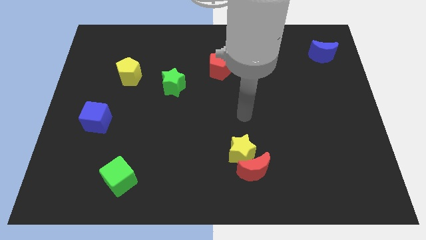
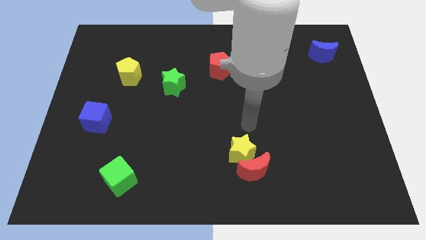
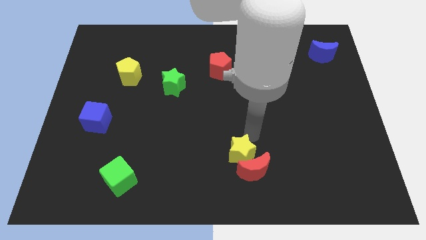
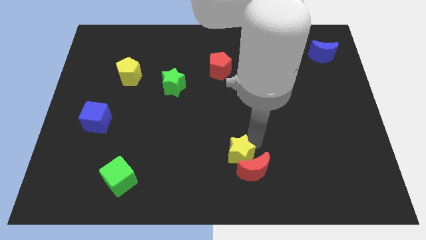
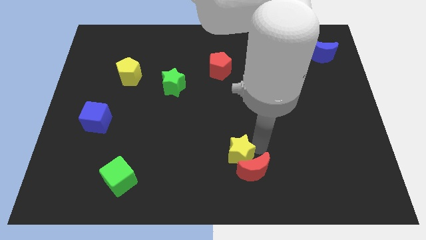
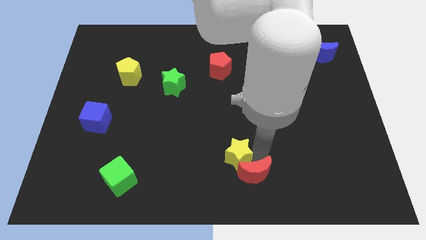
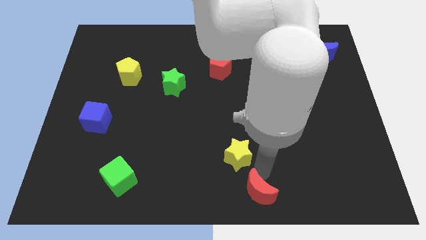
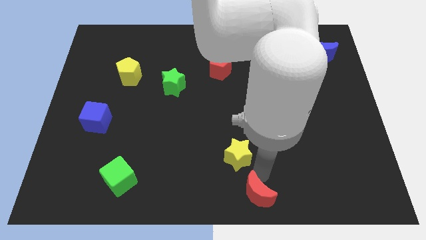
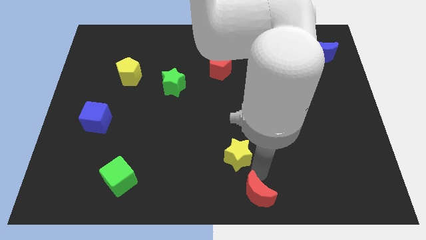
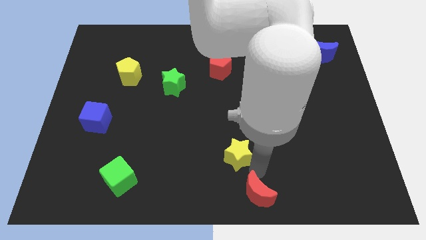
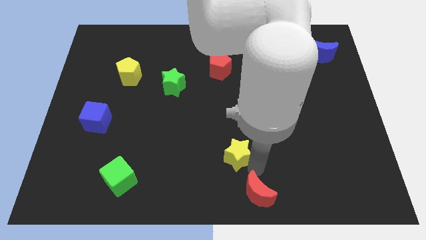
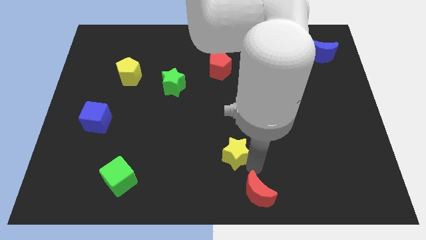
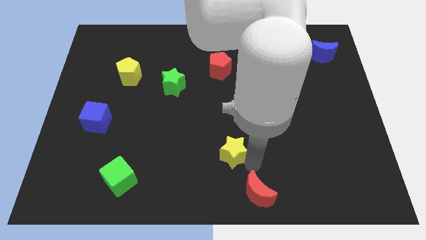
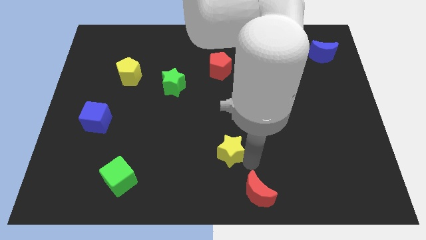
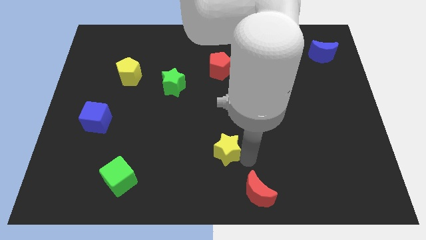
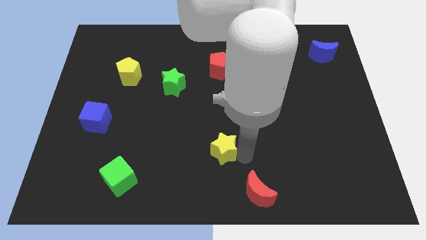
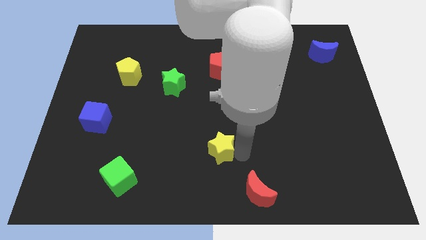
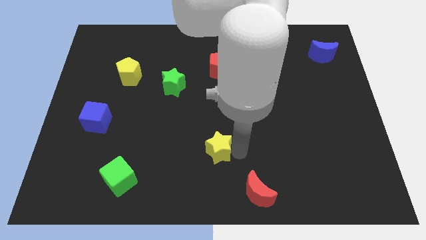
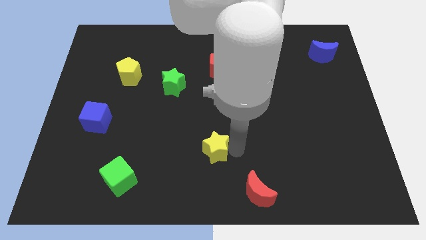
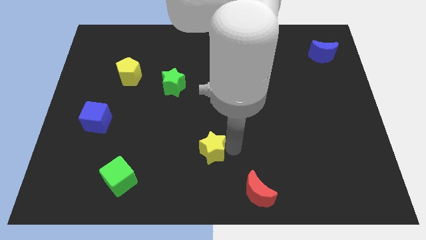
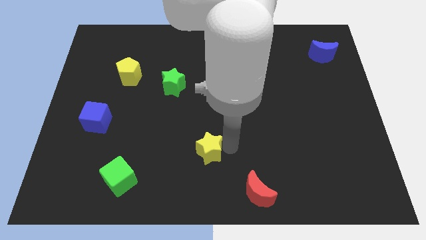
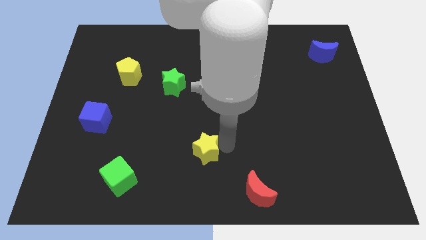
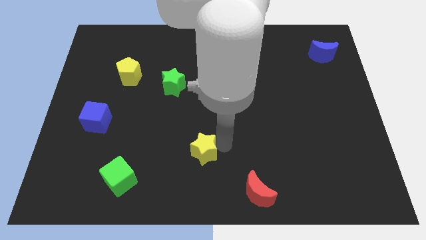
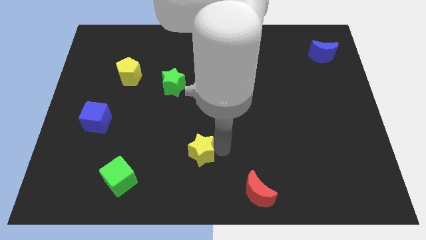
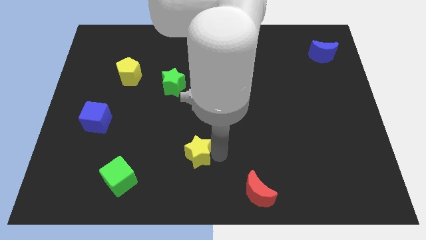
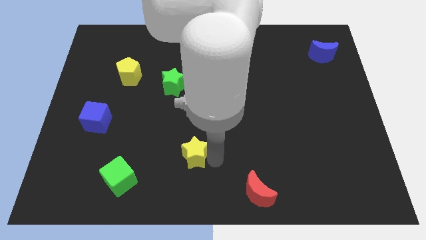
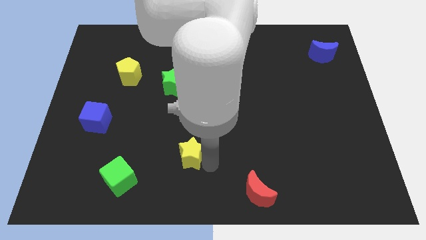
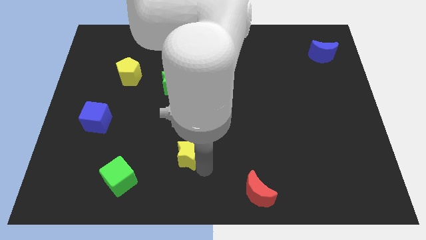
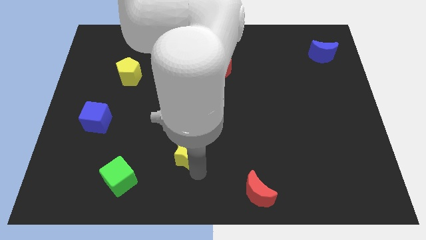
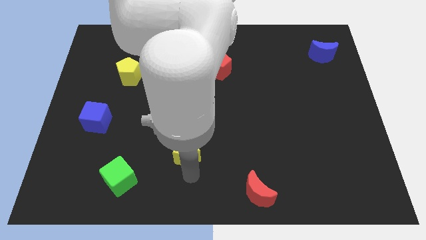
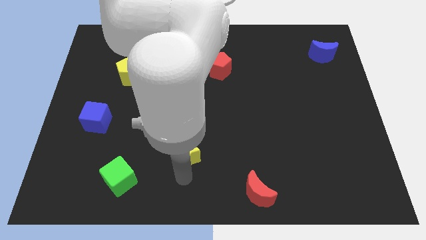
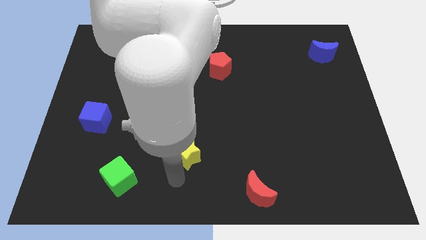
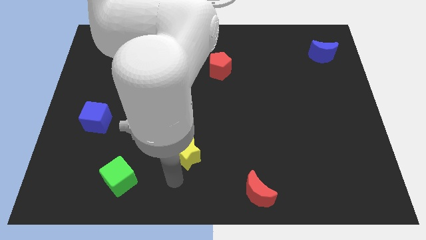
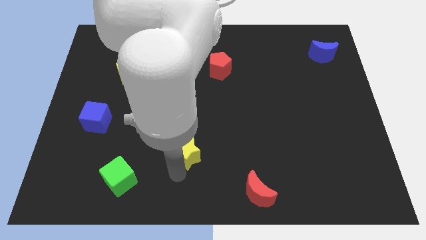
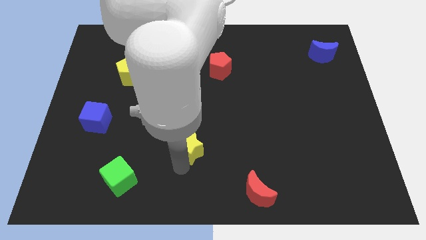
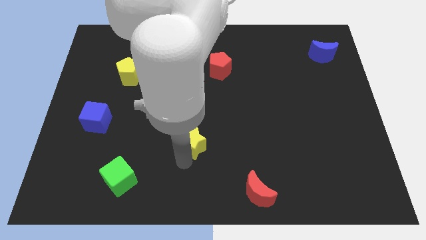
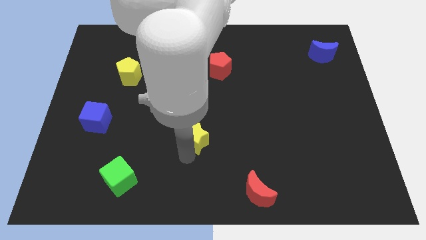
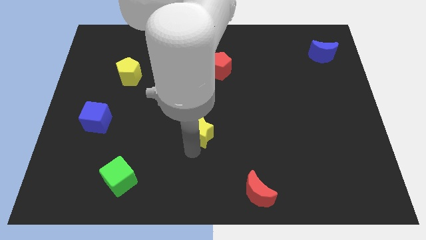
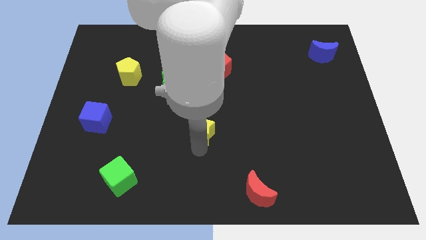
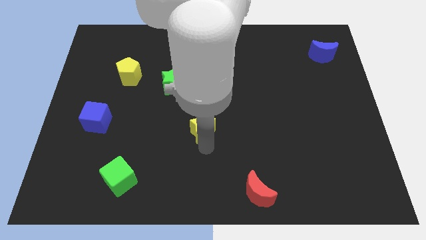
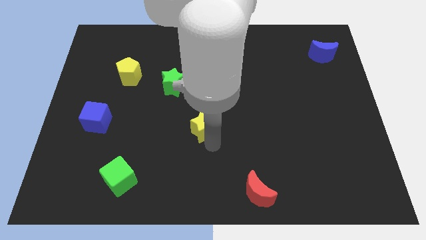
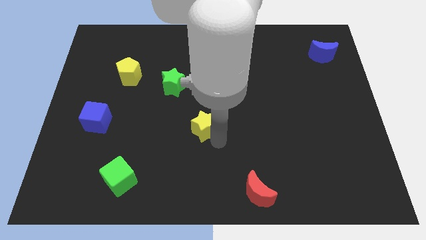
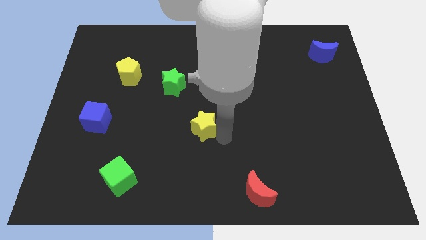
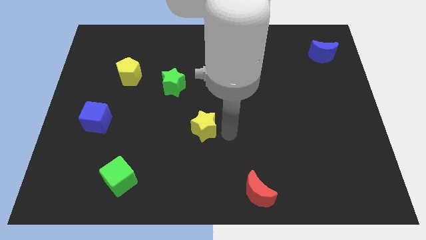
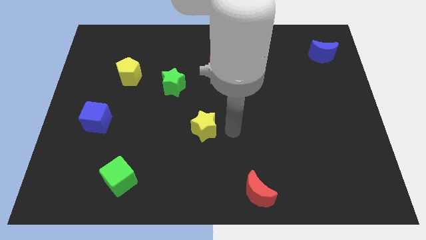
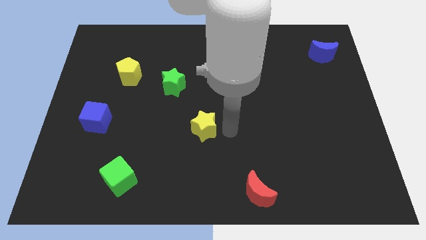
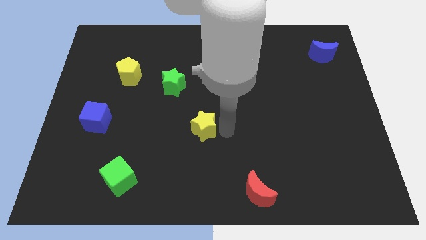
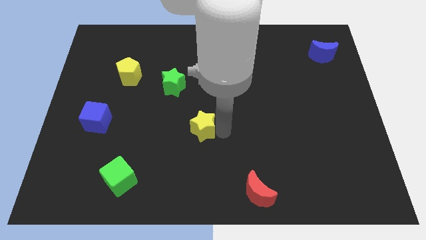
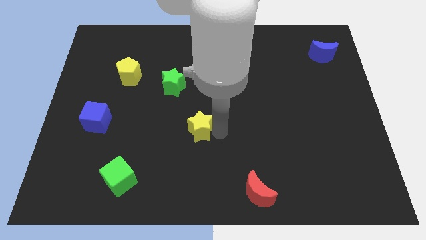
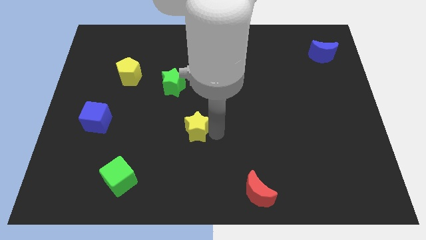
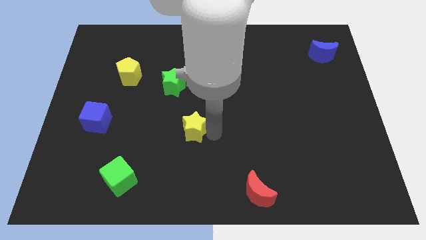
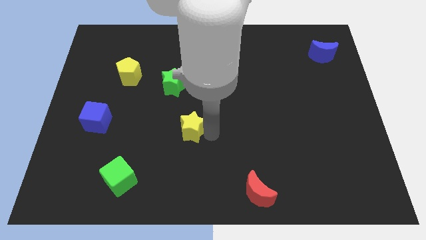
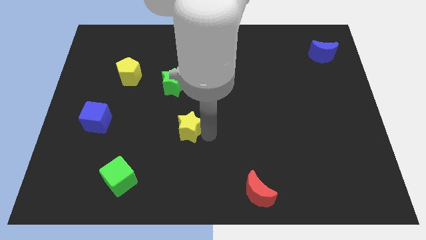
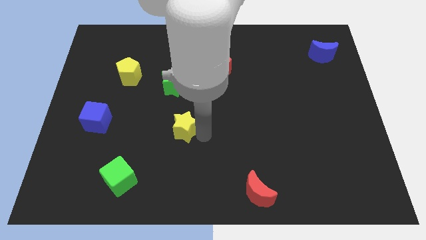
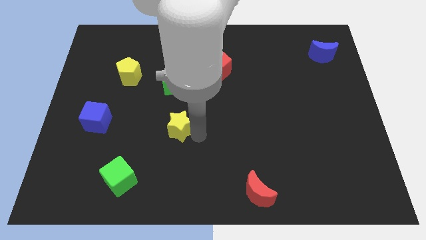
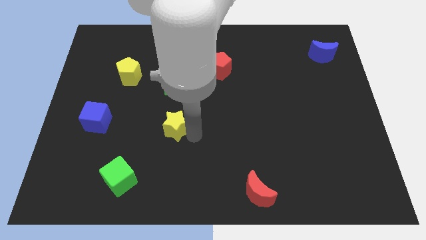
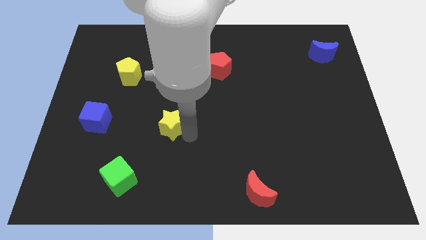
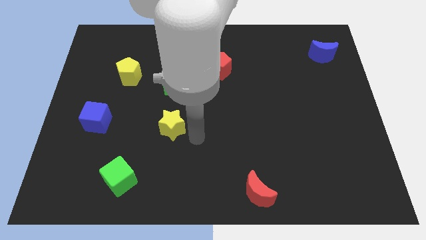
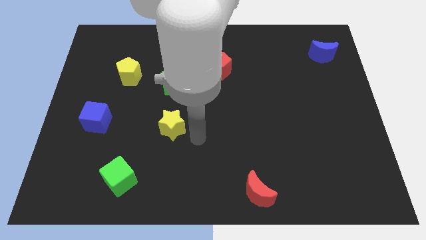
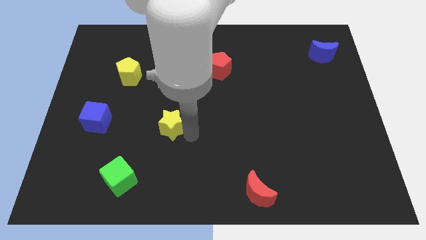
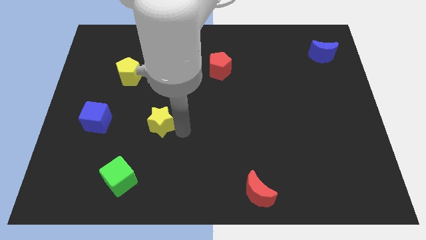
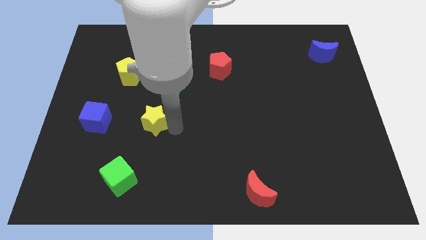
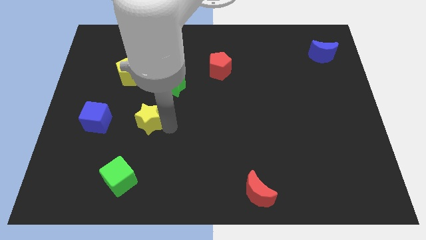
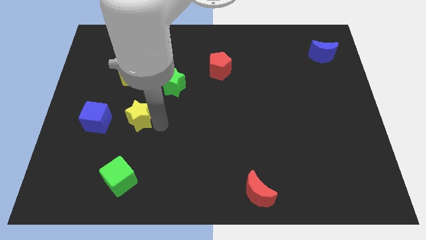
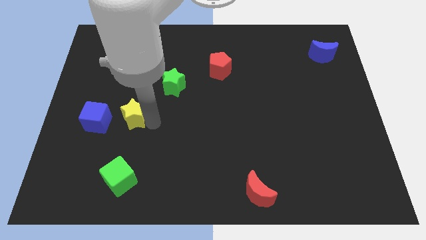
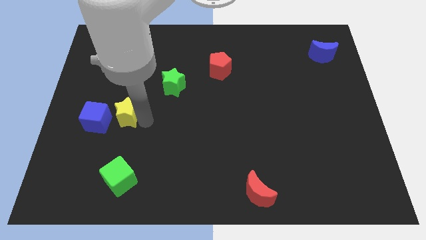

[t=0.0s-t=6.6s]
slide the yellow star to the top right of the blue cube

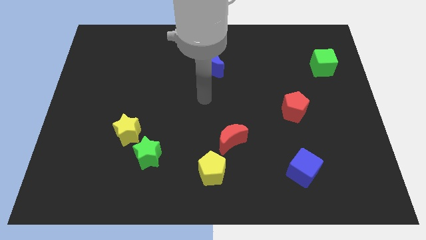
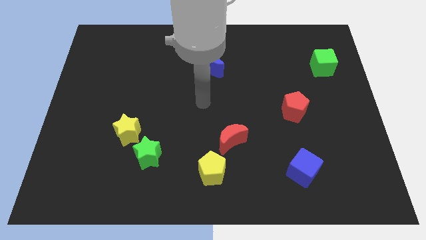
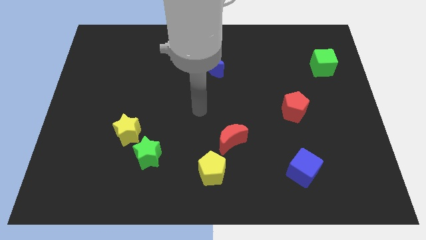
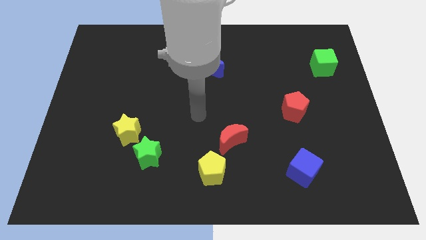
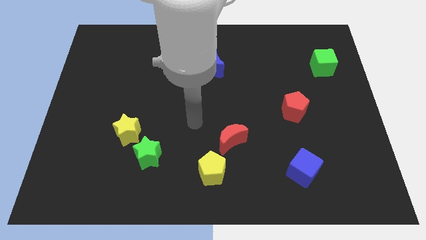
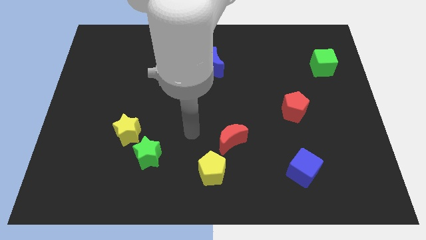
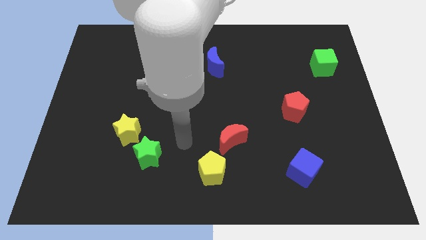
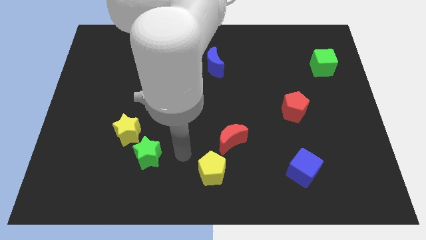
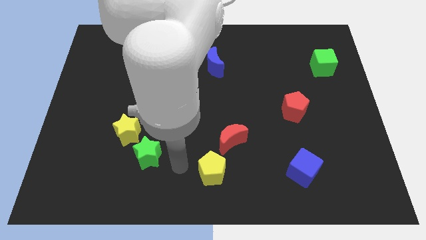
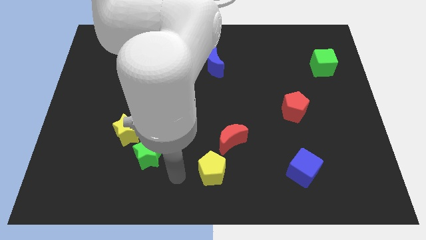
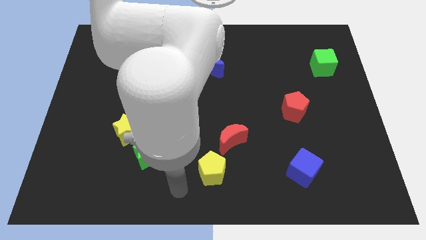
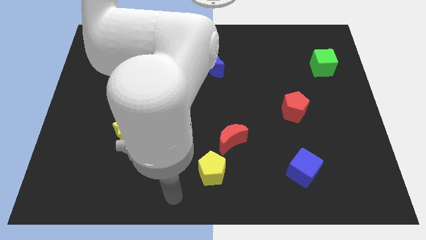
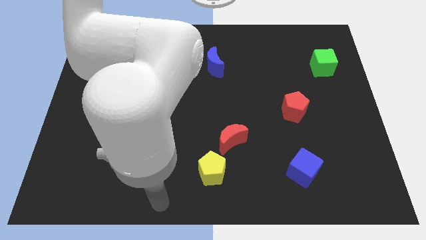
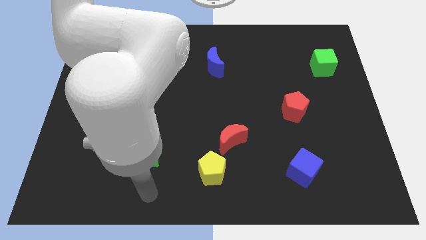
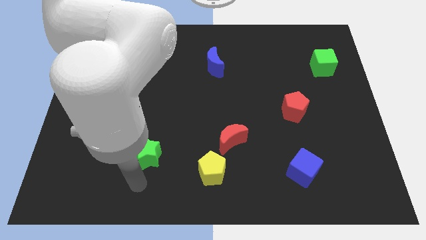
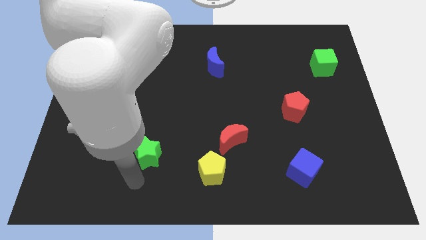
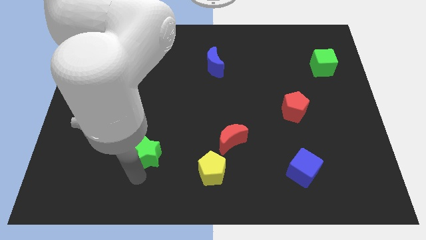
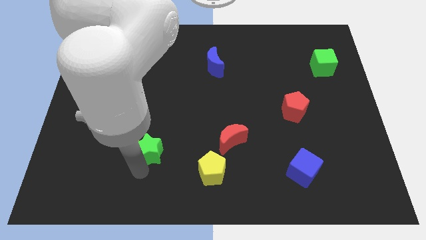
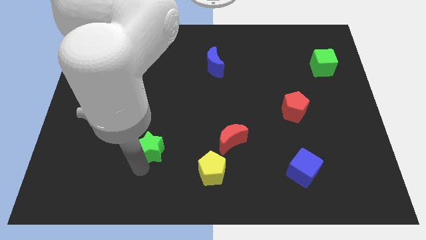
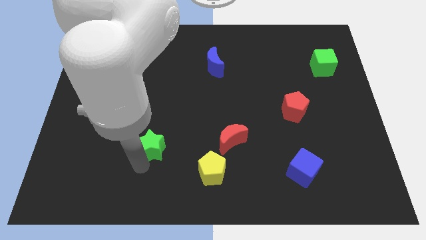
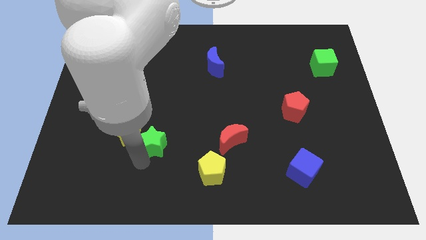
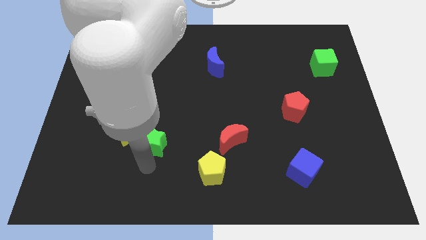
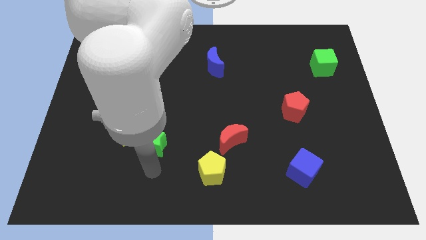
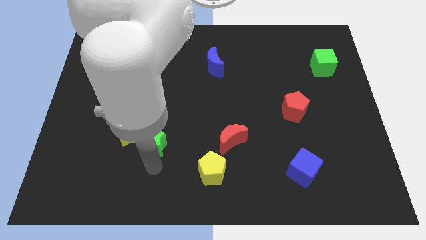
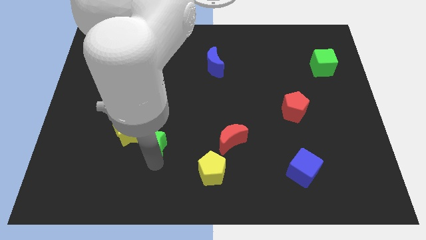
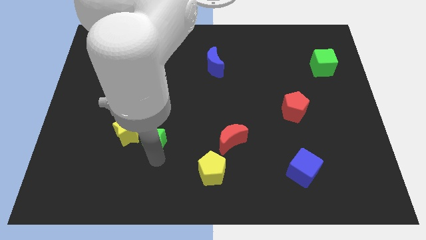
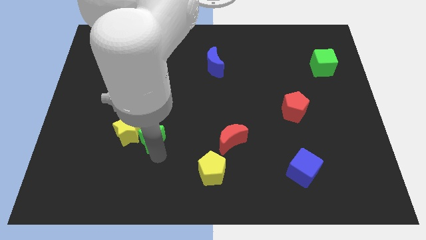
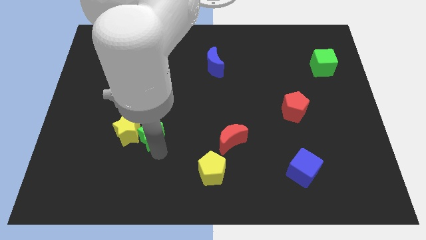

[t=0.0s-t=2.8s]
put the green star to the top right of the yellow star
